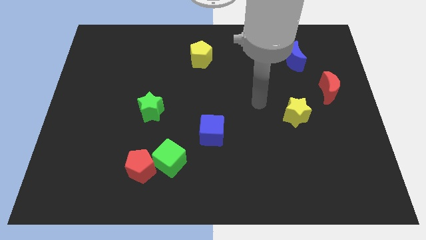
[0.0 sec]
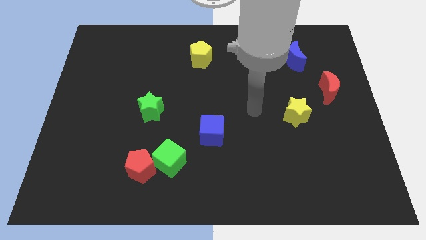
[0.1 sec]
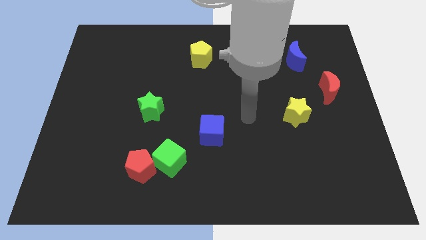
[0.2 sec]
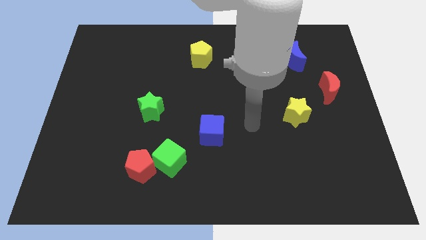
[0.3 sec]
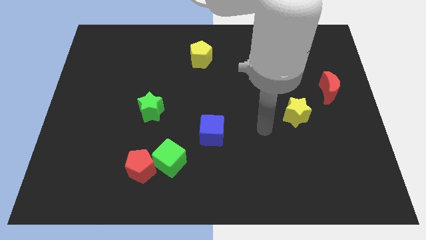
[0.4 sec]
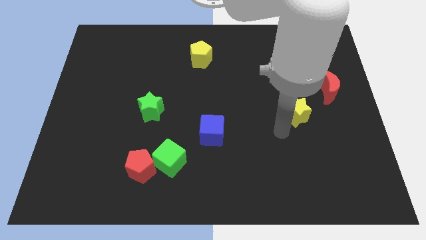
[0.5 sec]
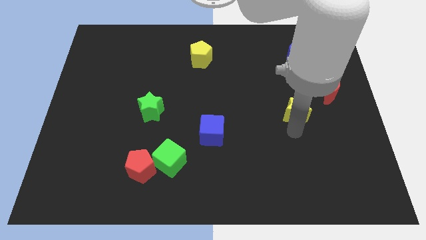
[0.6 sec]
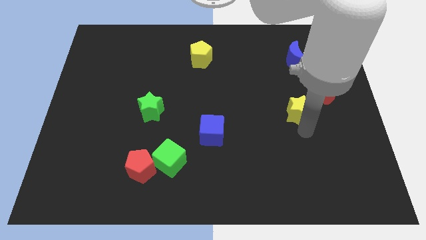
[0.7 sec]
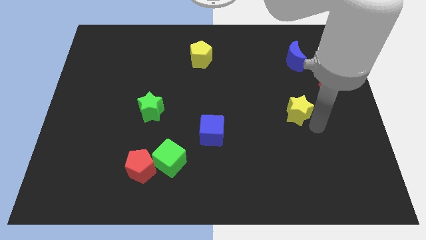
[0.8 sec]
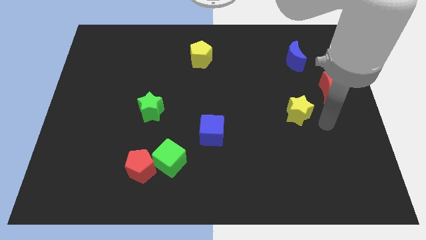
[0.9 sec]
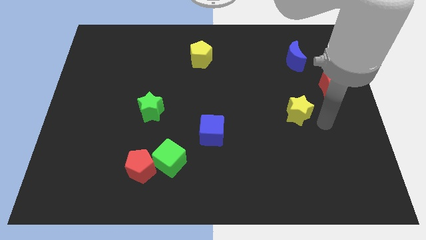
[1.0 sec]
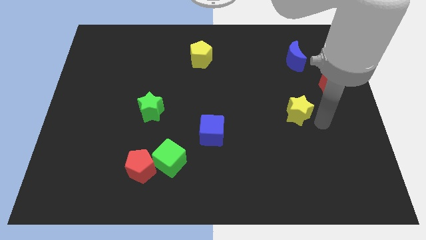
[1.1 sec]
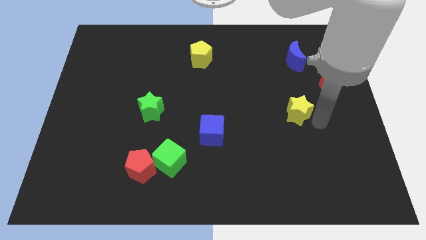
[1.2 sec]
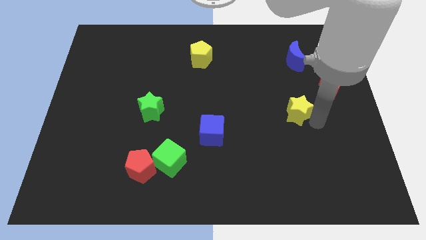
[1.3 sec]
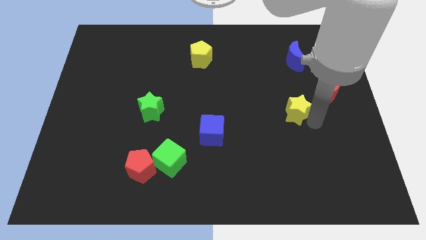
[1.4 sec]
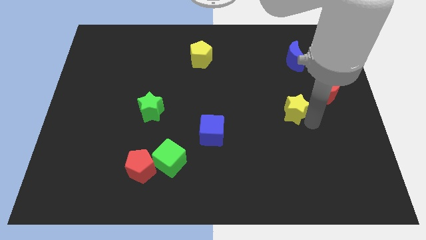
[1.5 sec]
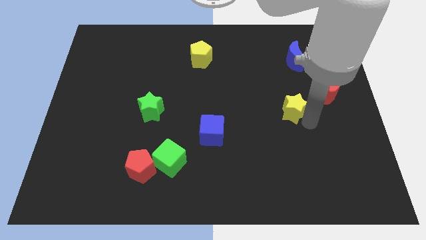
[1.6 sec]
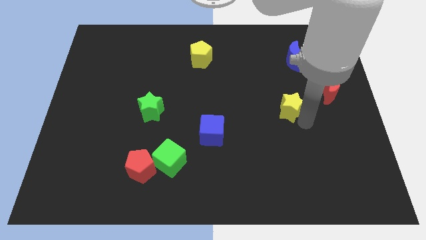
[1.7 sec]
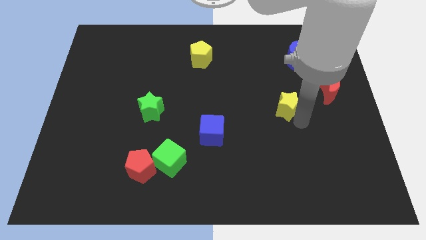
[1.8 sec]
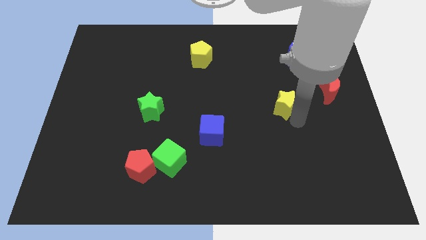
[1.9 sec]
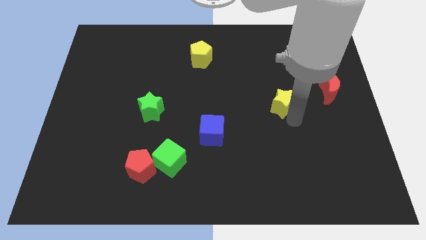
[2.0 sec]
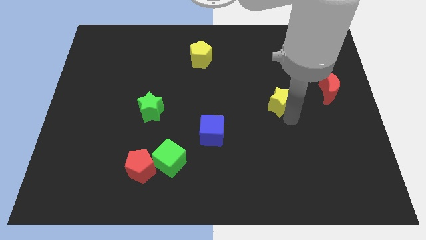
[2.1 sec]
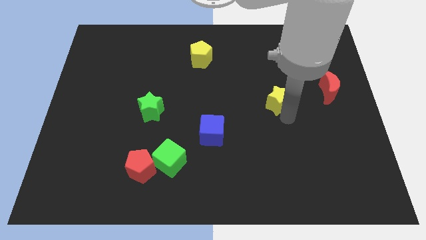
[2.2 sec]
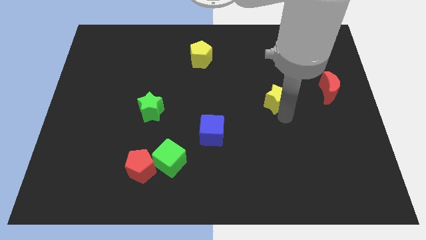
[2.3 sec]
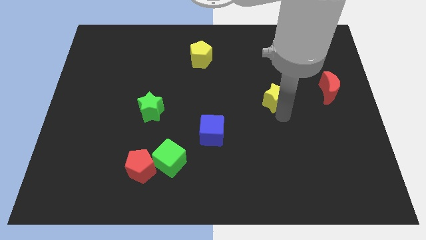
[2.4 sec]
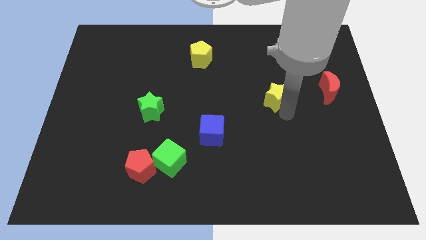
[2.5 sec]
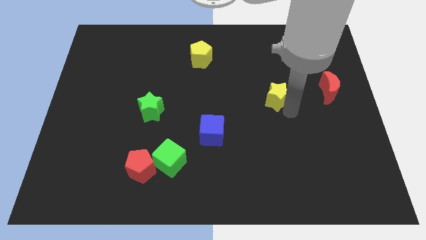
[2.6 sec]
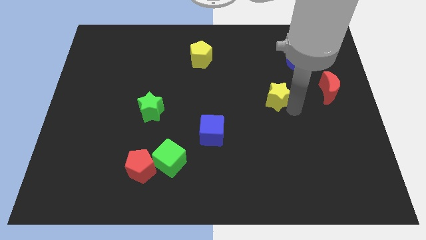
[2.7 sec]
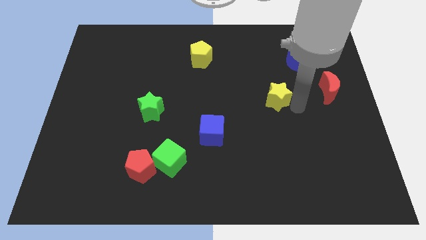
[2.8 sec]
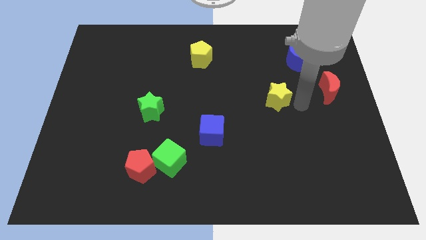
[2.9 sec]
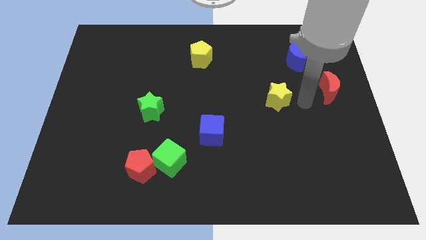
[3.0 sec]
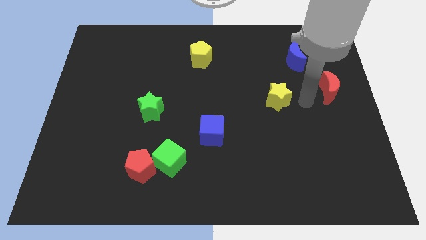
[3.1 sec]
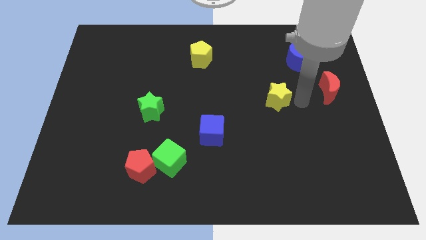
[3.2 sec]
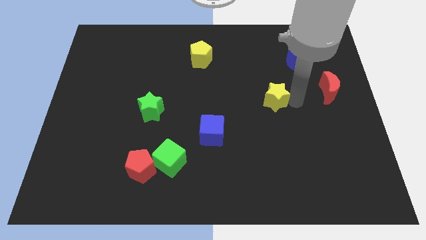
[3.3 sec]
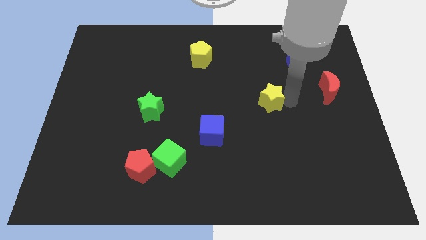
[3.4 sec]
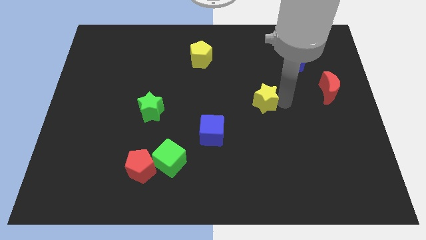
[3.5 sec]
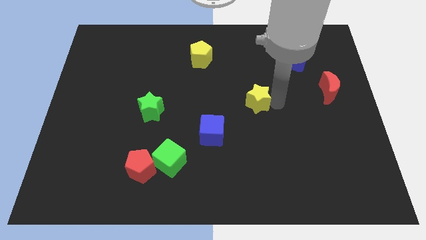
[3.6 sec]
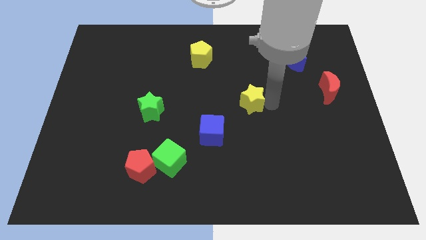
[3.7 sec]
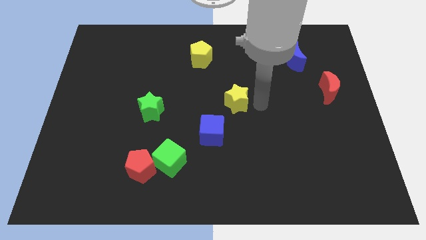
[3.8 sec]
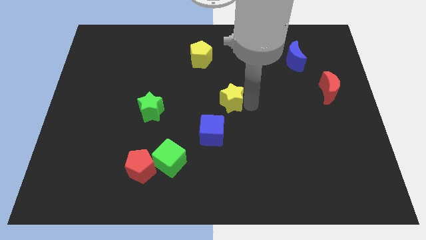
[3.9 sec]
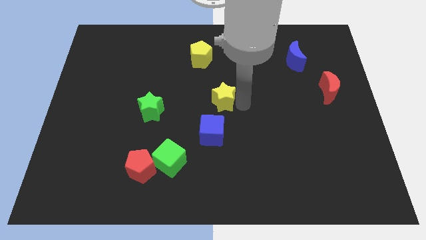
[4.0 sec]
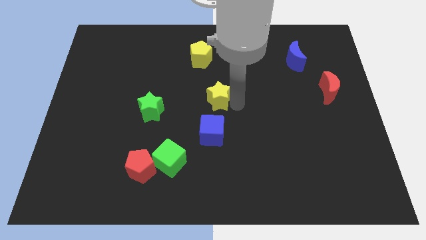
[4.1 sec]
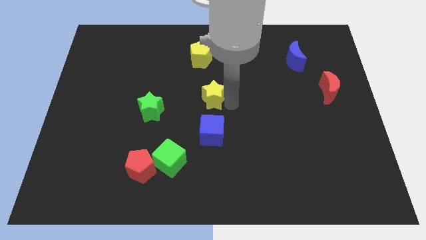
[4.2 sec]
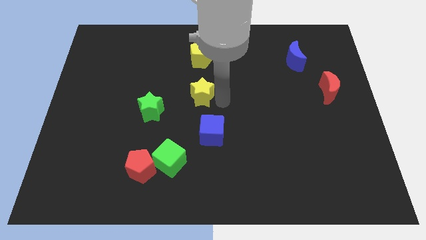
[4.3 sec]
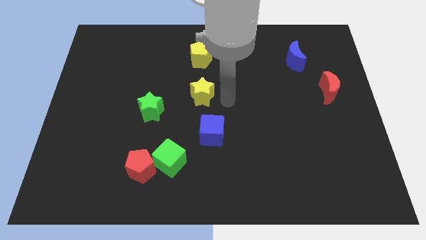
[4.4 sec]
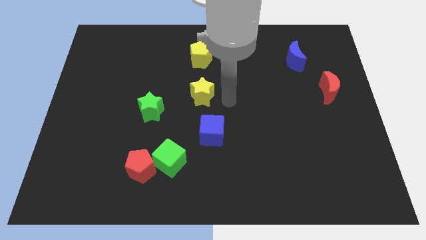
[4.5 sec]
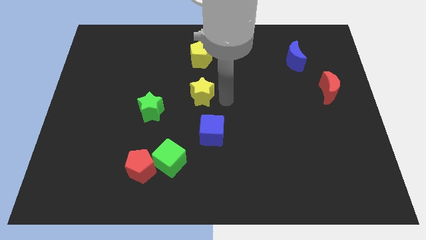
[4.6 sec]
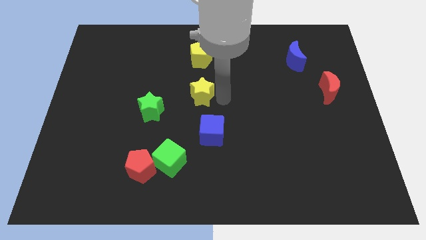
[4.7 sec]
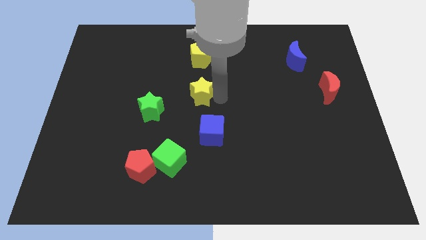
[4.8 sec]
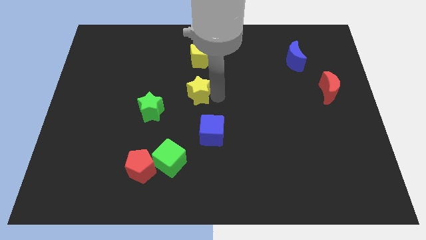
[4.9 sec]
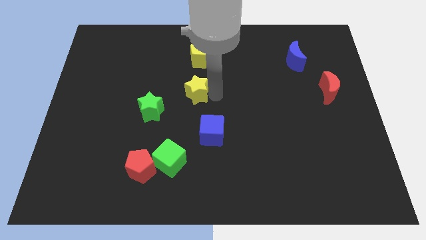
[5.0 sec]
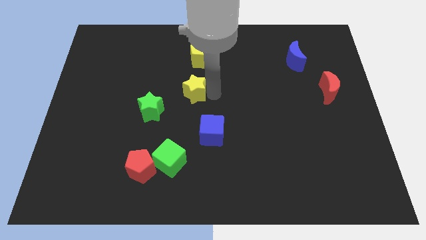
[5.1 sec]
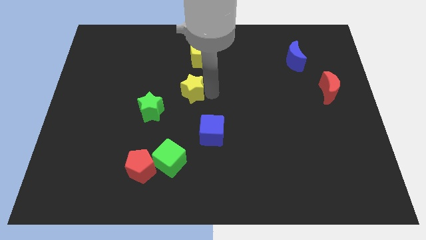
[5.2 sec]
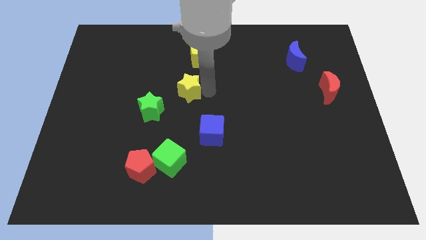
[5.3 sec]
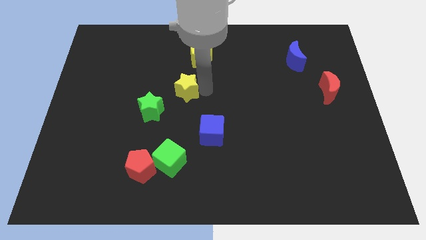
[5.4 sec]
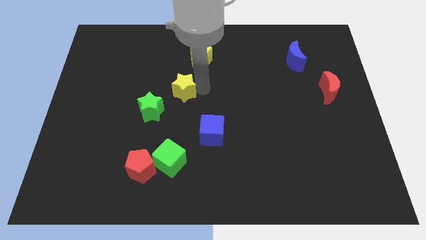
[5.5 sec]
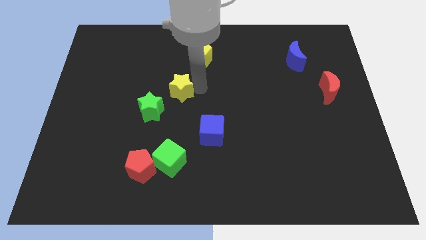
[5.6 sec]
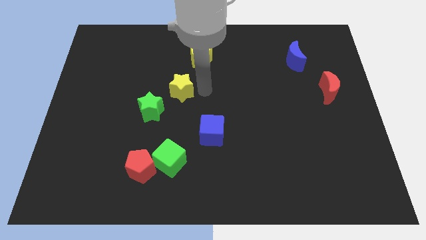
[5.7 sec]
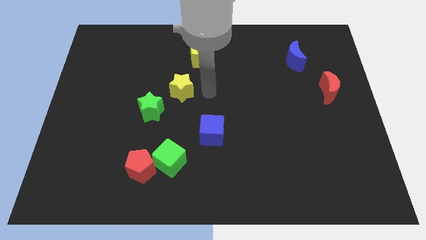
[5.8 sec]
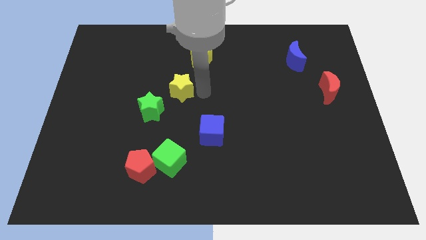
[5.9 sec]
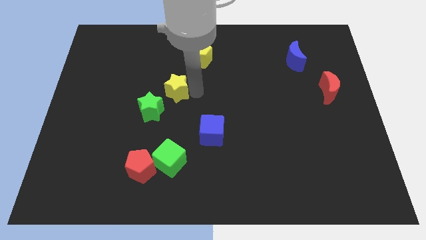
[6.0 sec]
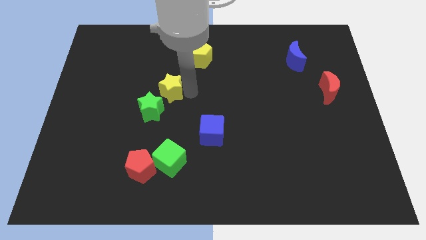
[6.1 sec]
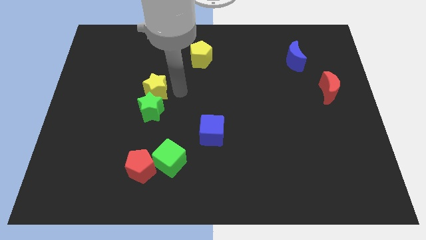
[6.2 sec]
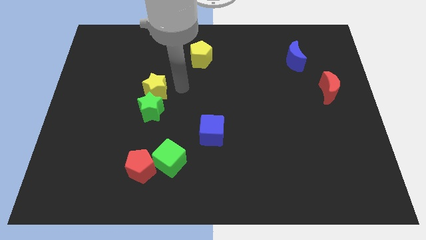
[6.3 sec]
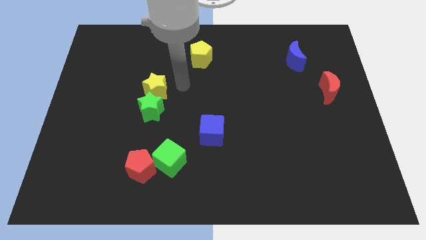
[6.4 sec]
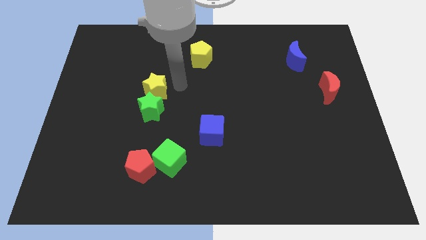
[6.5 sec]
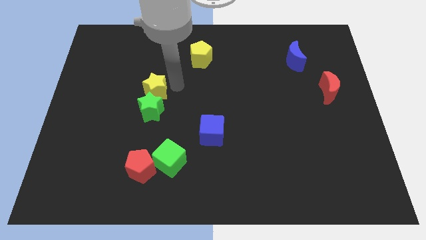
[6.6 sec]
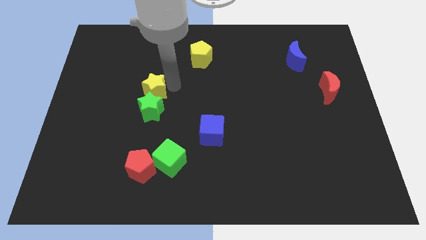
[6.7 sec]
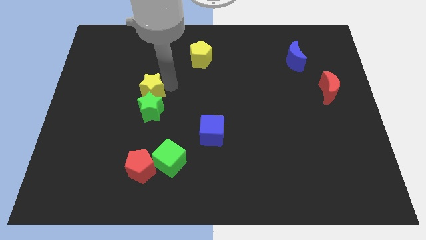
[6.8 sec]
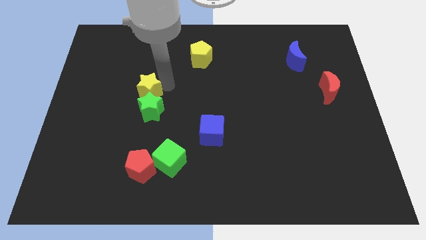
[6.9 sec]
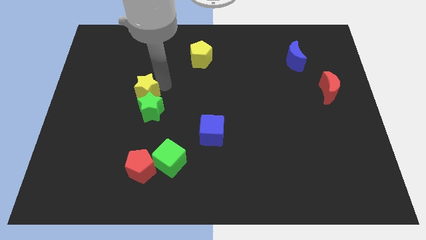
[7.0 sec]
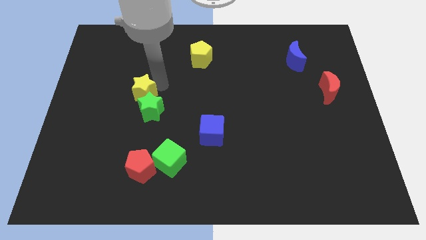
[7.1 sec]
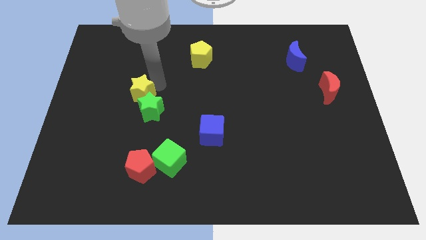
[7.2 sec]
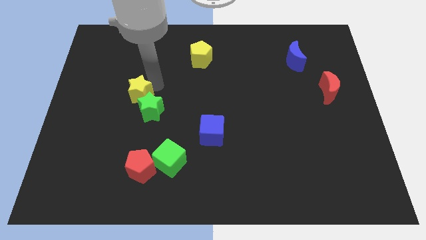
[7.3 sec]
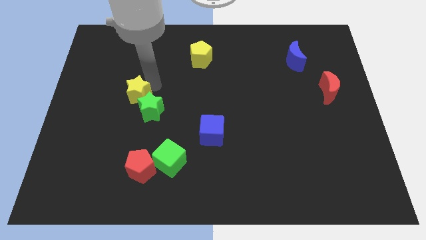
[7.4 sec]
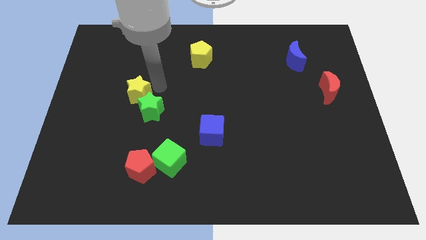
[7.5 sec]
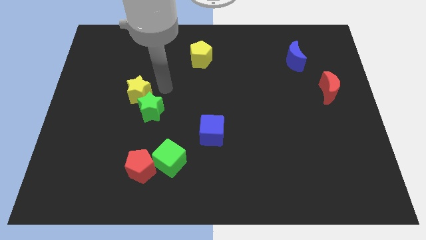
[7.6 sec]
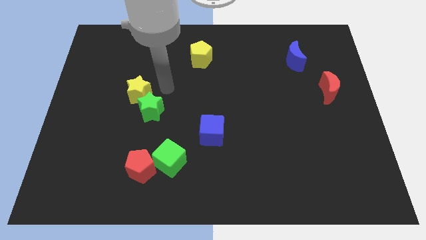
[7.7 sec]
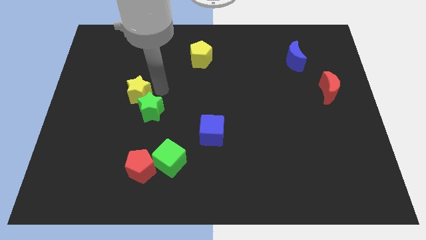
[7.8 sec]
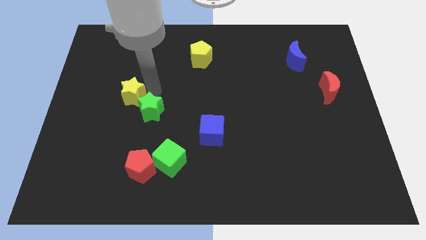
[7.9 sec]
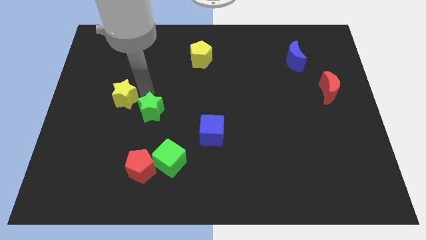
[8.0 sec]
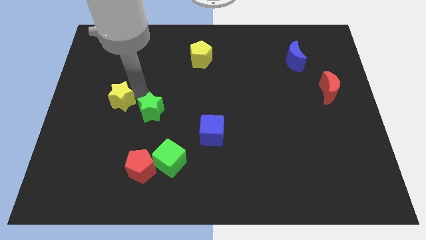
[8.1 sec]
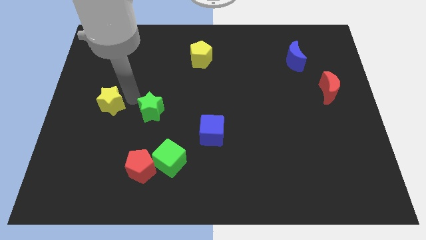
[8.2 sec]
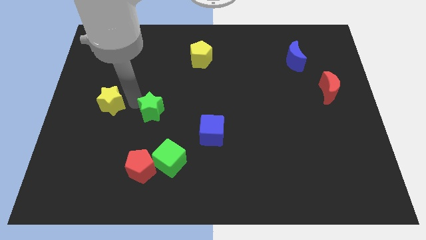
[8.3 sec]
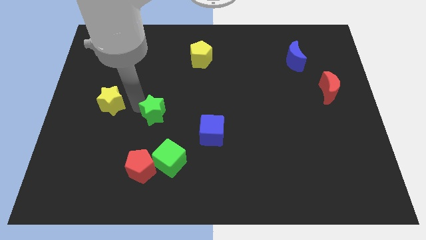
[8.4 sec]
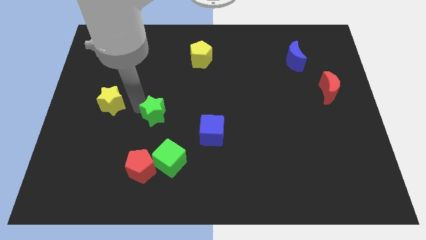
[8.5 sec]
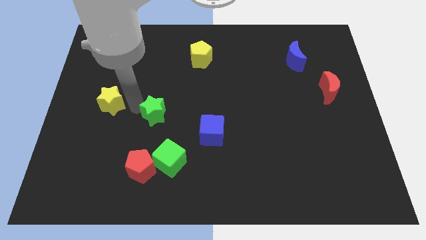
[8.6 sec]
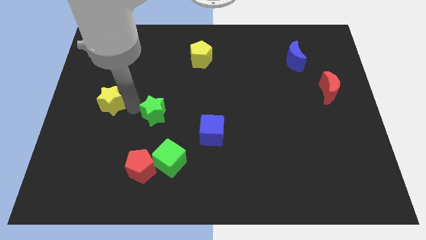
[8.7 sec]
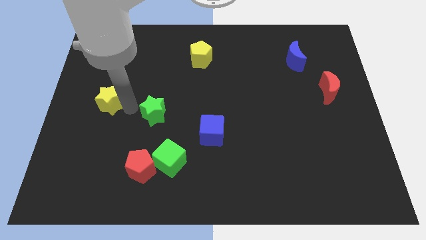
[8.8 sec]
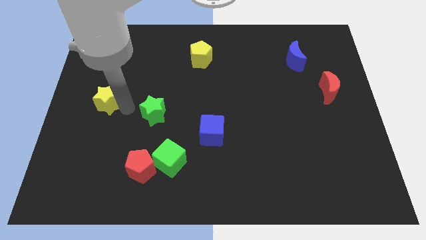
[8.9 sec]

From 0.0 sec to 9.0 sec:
slide the yellow star to the center left
